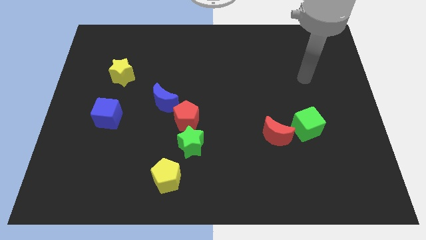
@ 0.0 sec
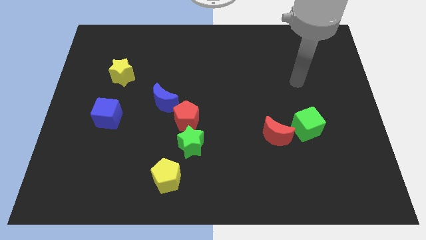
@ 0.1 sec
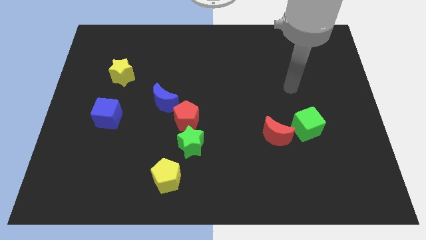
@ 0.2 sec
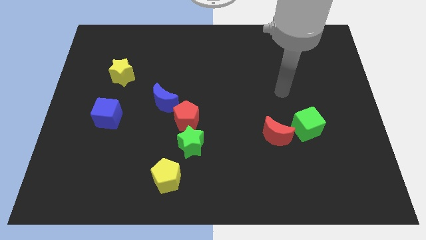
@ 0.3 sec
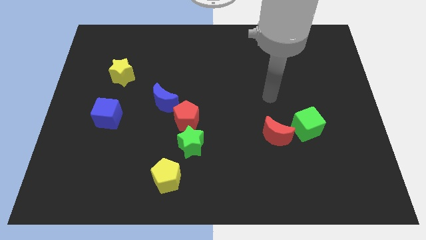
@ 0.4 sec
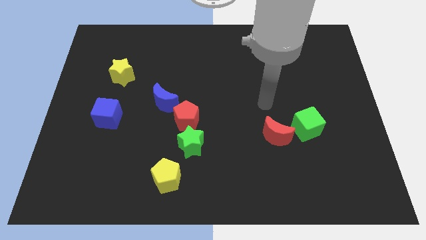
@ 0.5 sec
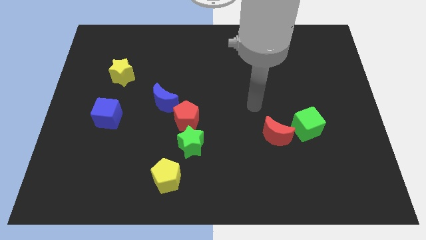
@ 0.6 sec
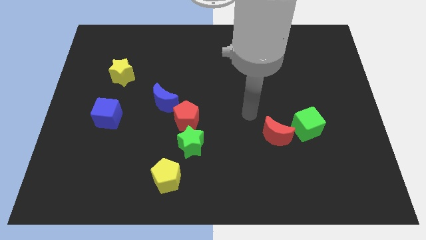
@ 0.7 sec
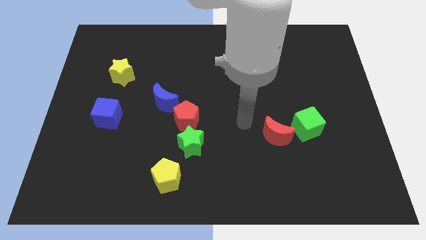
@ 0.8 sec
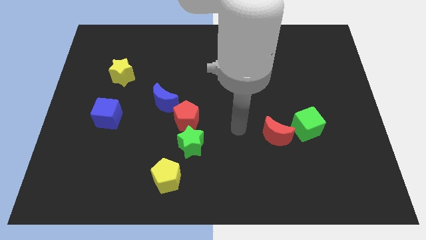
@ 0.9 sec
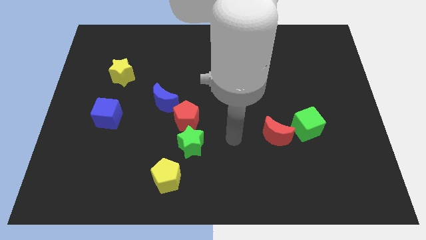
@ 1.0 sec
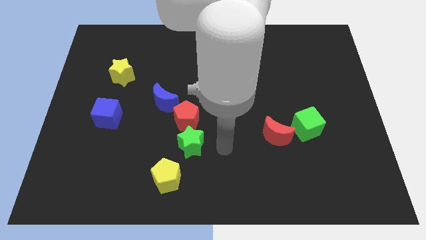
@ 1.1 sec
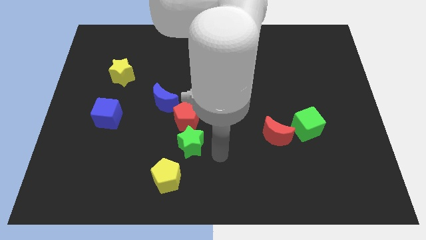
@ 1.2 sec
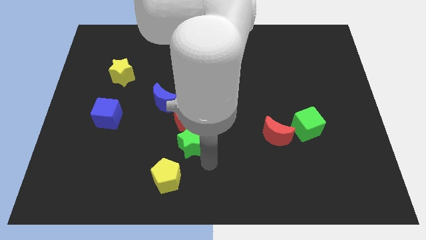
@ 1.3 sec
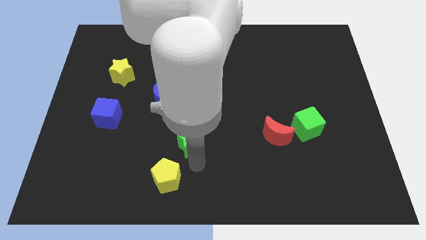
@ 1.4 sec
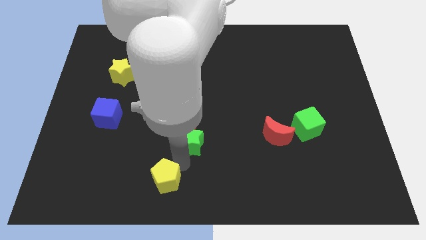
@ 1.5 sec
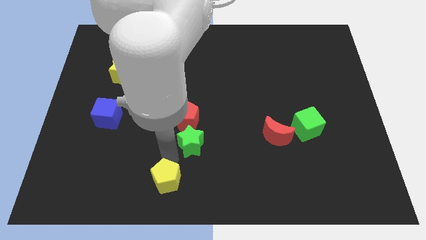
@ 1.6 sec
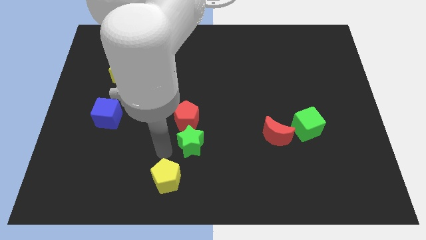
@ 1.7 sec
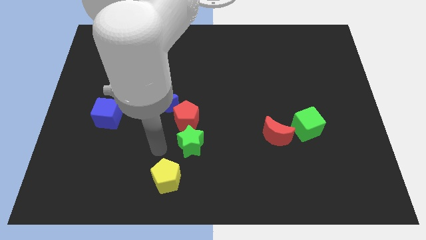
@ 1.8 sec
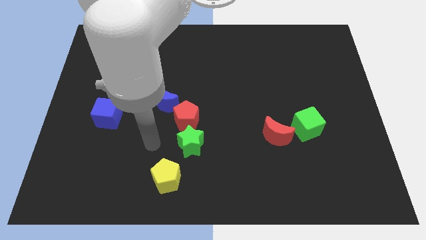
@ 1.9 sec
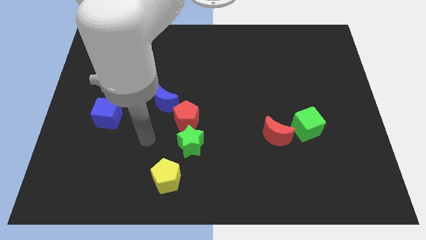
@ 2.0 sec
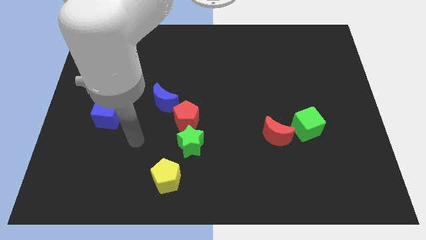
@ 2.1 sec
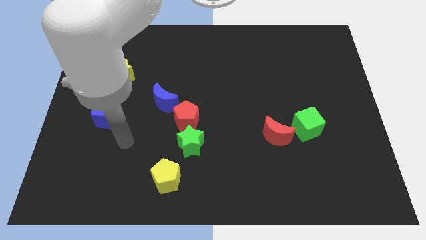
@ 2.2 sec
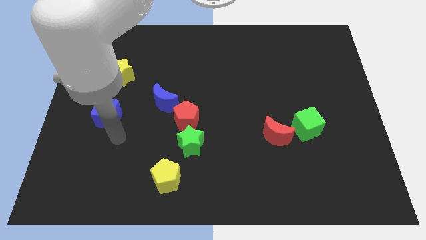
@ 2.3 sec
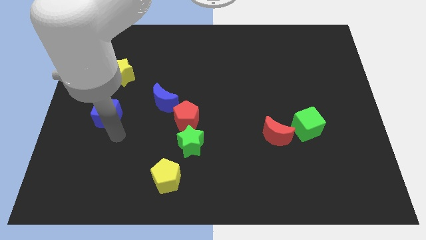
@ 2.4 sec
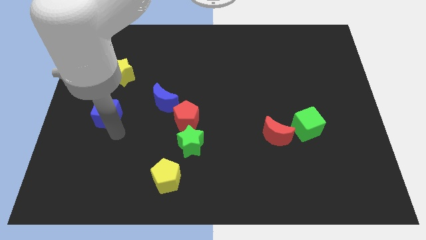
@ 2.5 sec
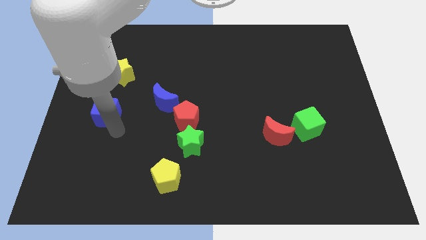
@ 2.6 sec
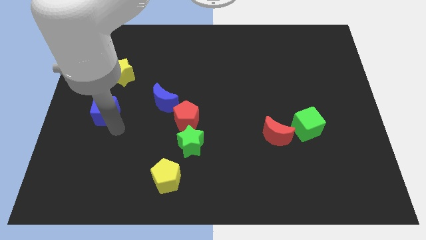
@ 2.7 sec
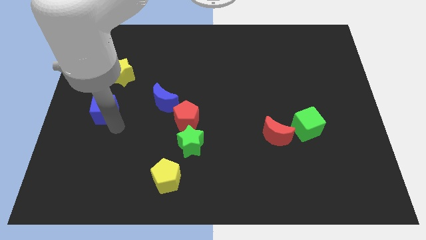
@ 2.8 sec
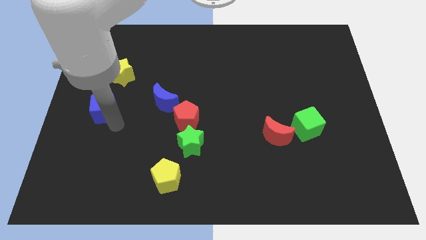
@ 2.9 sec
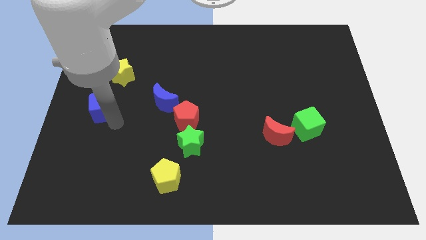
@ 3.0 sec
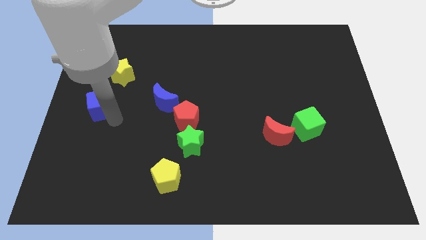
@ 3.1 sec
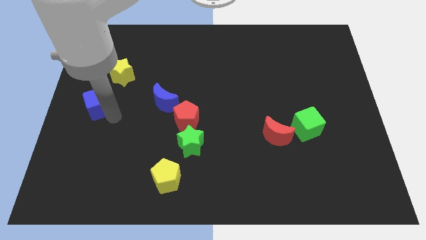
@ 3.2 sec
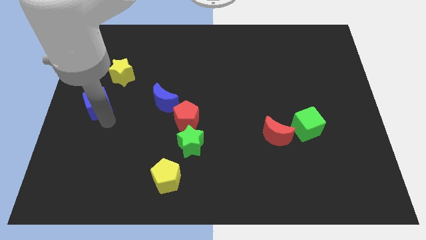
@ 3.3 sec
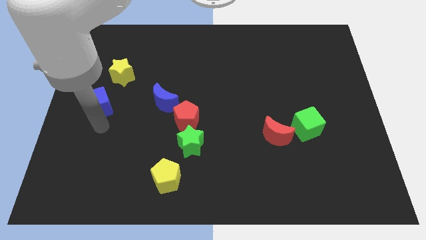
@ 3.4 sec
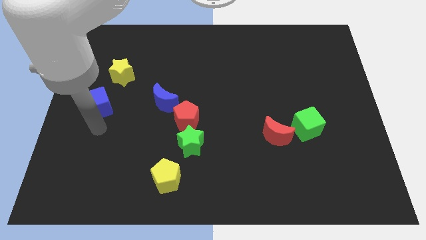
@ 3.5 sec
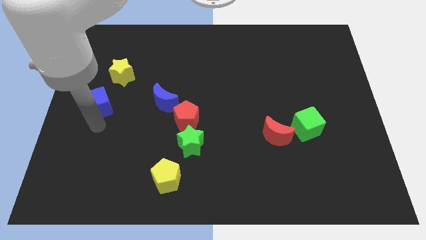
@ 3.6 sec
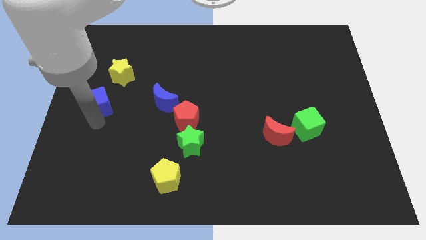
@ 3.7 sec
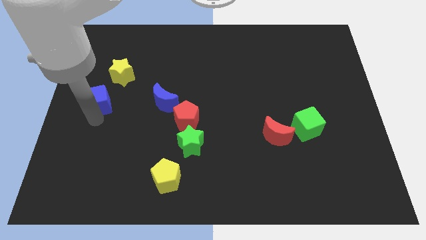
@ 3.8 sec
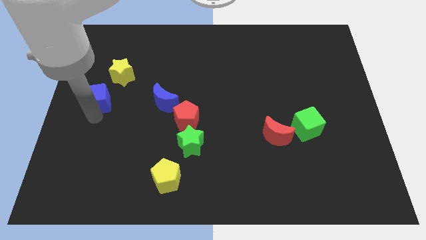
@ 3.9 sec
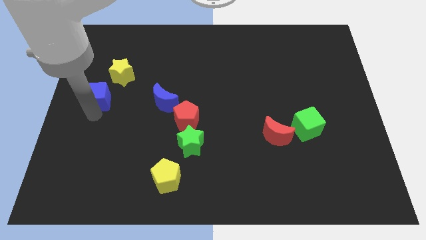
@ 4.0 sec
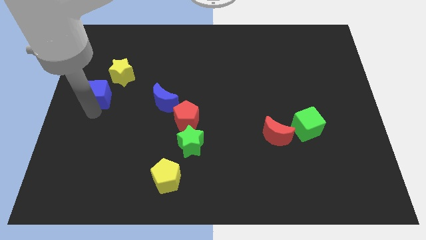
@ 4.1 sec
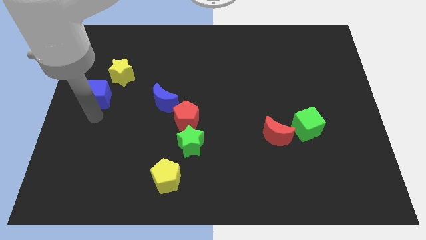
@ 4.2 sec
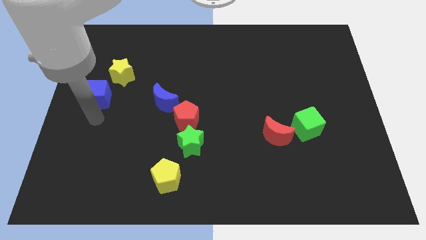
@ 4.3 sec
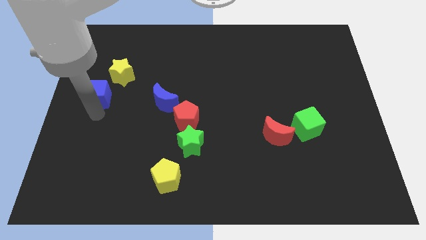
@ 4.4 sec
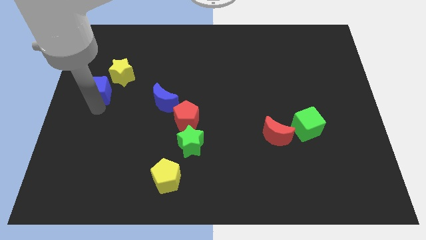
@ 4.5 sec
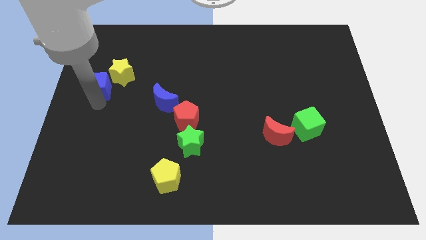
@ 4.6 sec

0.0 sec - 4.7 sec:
push the blue cube upwards slightly

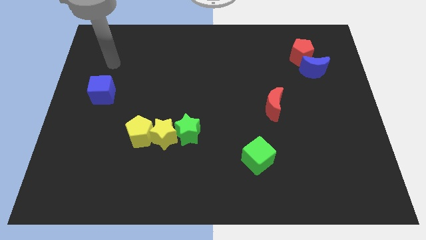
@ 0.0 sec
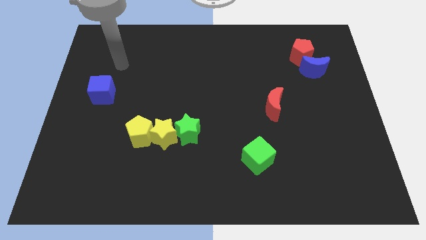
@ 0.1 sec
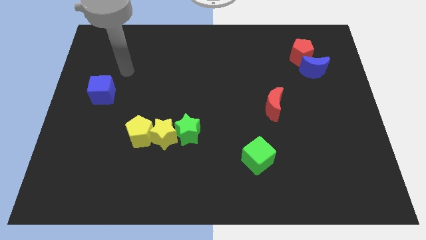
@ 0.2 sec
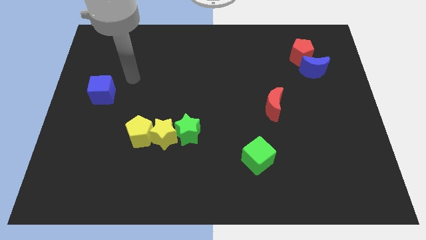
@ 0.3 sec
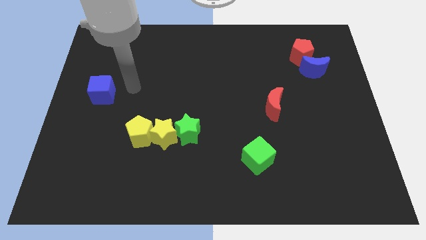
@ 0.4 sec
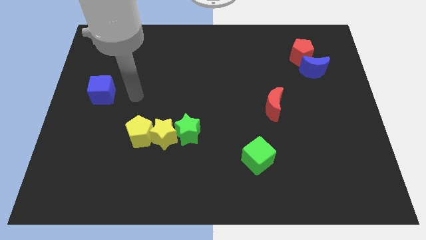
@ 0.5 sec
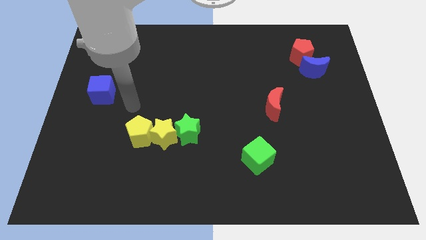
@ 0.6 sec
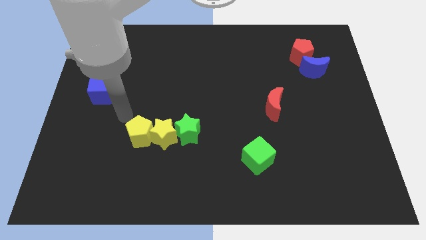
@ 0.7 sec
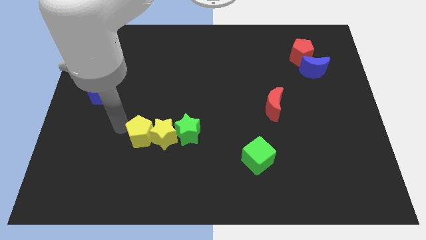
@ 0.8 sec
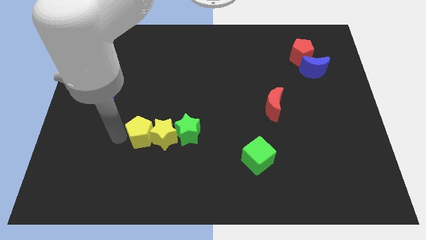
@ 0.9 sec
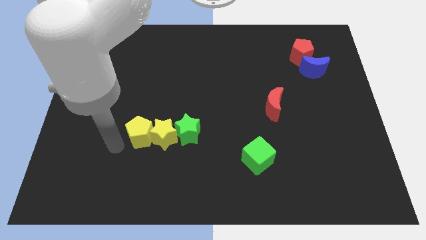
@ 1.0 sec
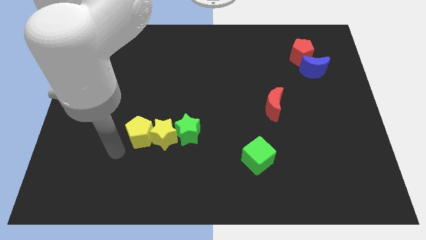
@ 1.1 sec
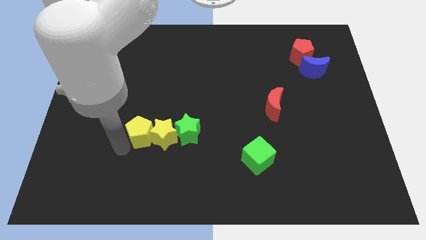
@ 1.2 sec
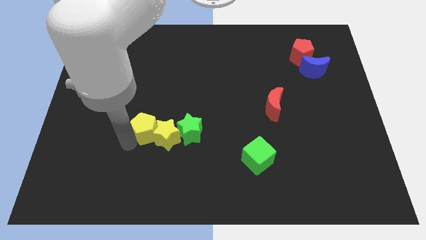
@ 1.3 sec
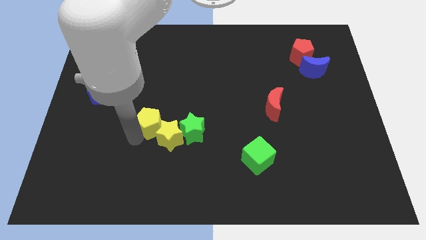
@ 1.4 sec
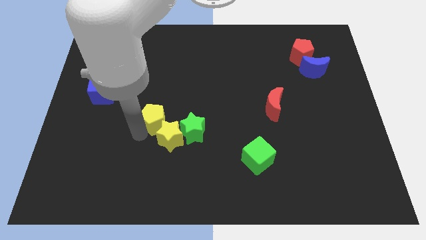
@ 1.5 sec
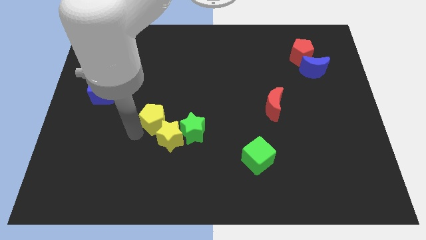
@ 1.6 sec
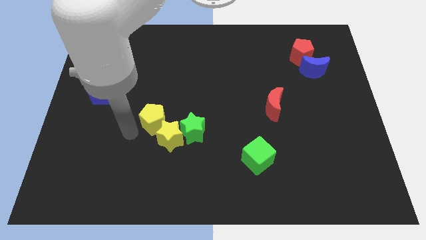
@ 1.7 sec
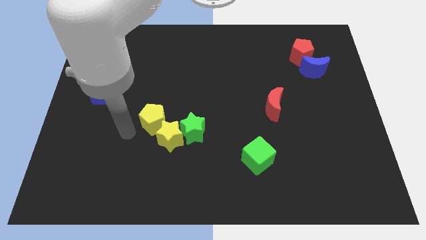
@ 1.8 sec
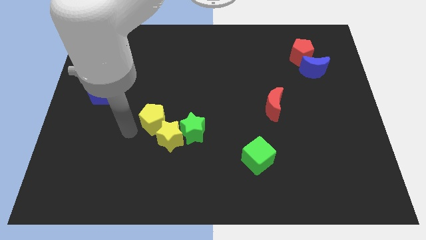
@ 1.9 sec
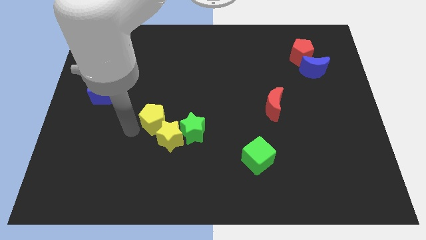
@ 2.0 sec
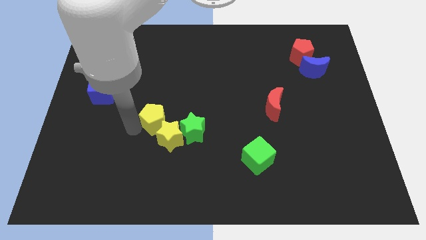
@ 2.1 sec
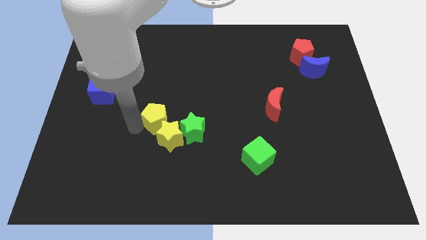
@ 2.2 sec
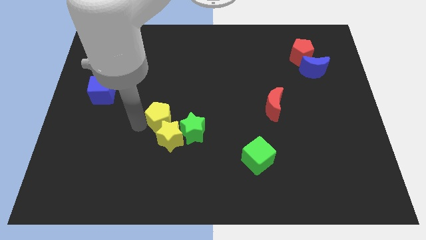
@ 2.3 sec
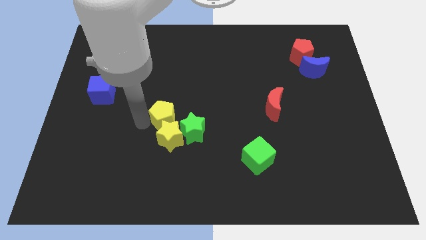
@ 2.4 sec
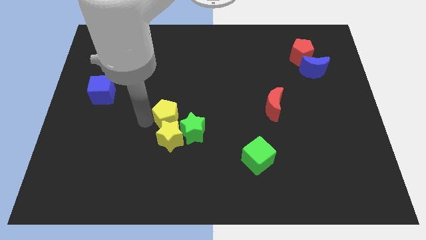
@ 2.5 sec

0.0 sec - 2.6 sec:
slide the yellow pentagon diagonally up and right slightly

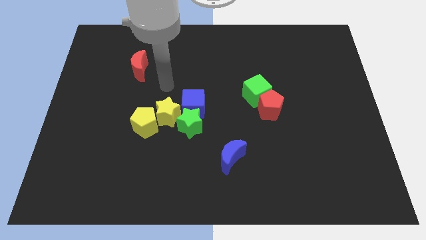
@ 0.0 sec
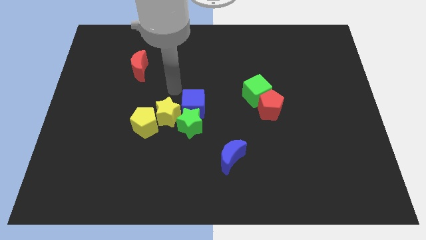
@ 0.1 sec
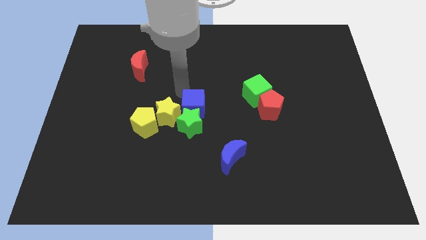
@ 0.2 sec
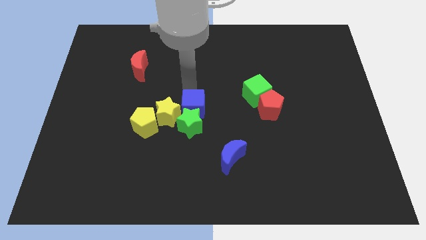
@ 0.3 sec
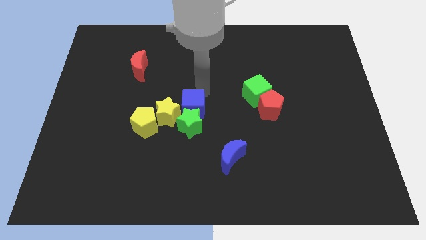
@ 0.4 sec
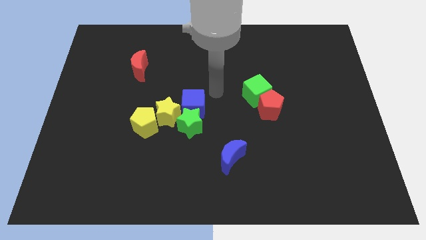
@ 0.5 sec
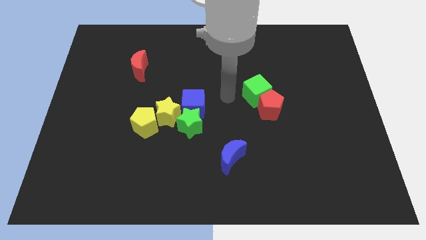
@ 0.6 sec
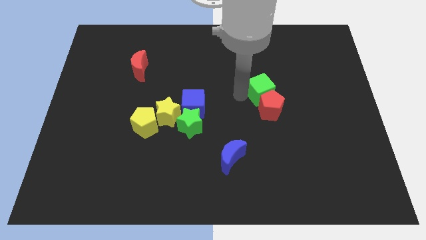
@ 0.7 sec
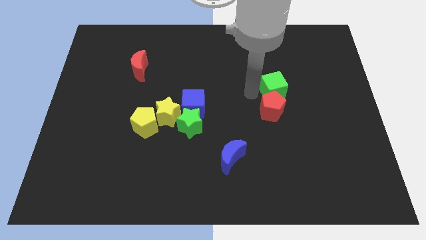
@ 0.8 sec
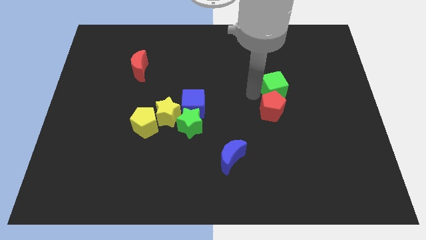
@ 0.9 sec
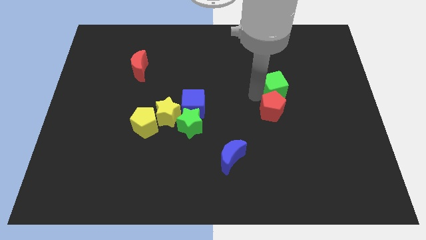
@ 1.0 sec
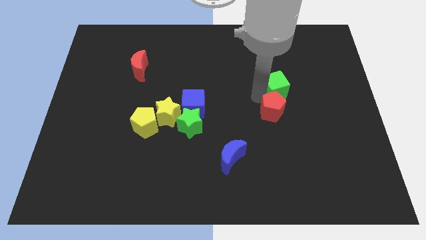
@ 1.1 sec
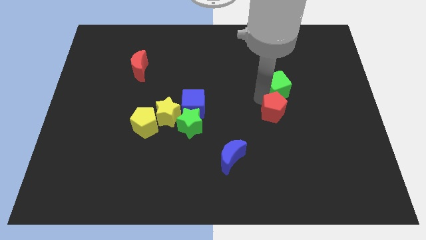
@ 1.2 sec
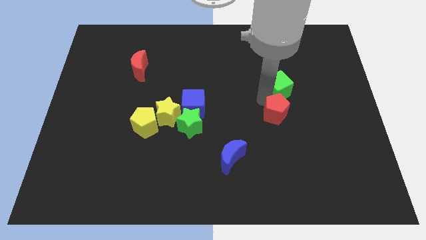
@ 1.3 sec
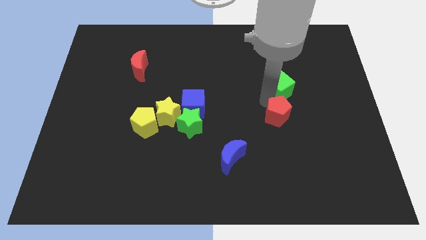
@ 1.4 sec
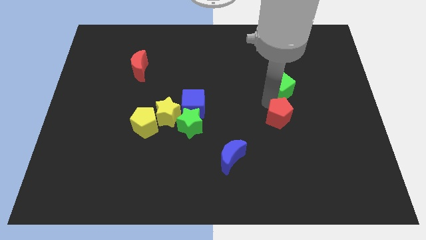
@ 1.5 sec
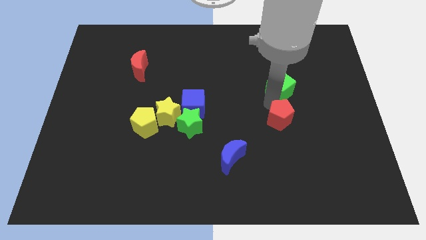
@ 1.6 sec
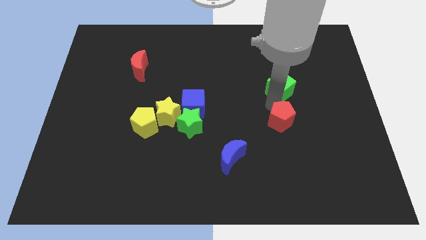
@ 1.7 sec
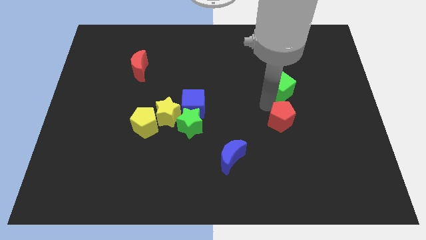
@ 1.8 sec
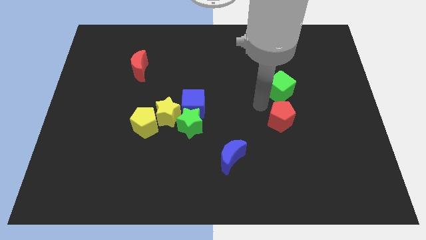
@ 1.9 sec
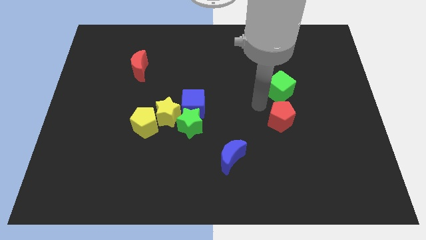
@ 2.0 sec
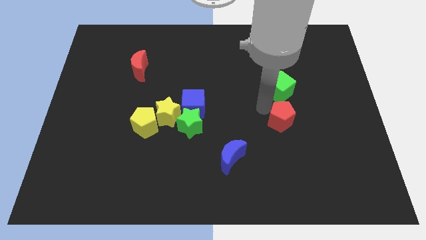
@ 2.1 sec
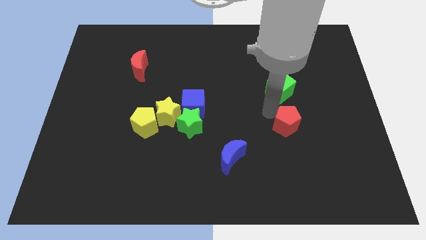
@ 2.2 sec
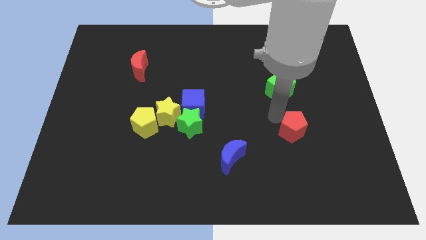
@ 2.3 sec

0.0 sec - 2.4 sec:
slightly push the red pentagon down and then to the right
